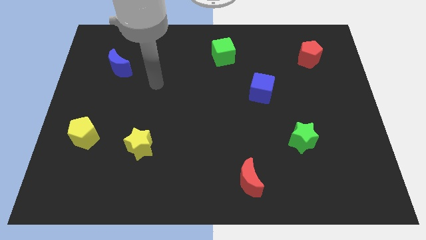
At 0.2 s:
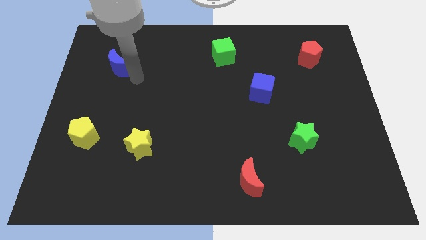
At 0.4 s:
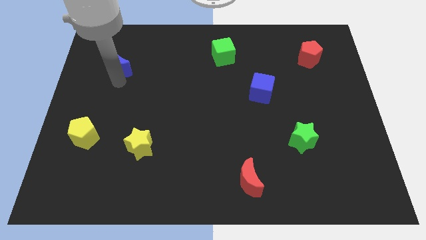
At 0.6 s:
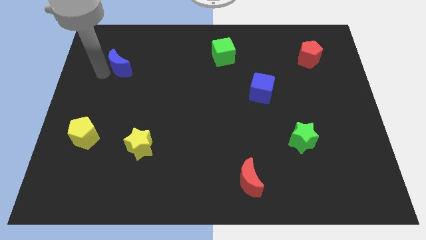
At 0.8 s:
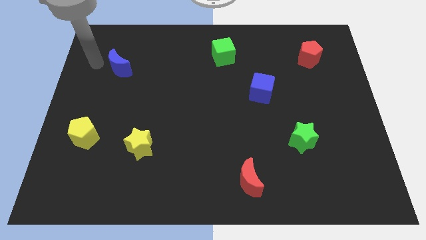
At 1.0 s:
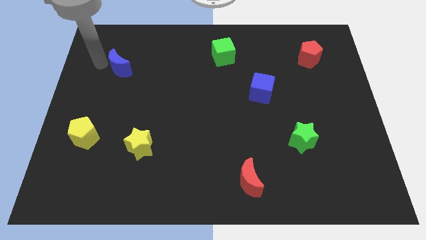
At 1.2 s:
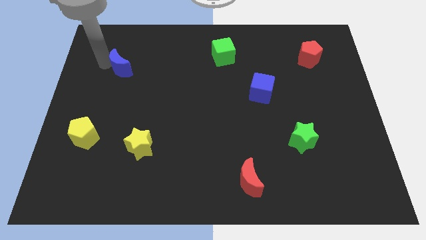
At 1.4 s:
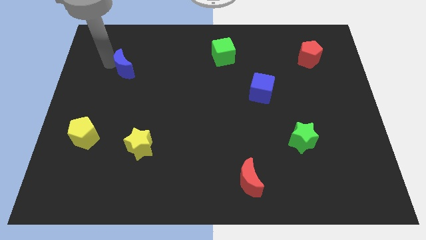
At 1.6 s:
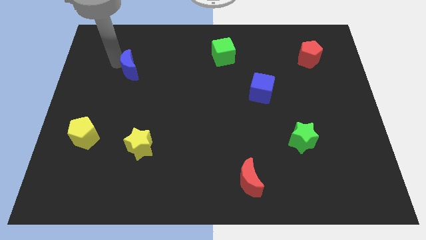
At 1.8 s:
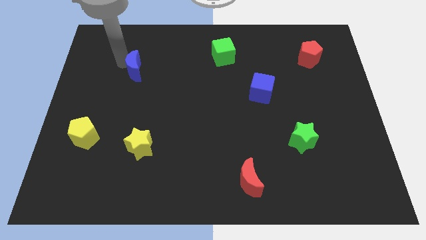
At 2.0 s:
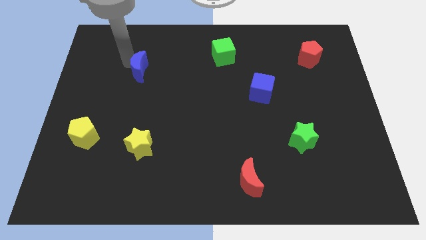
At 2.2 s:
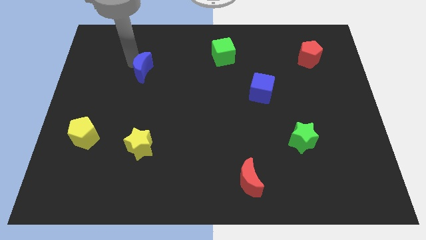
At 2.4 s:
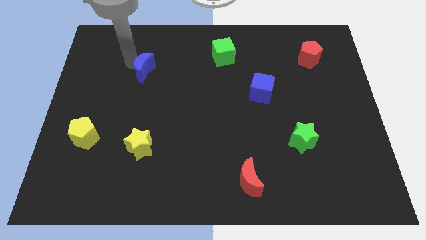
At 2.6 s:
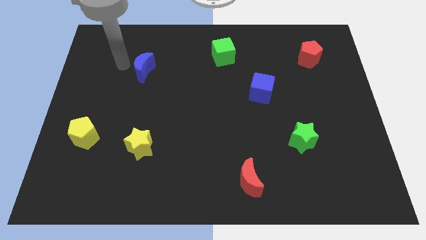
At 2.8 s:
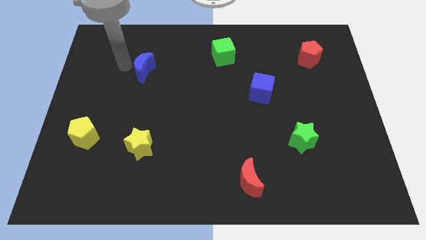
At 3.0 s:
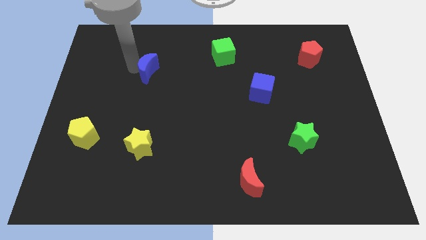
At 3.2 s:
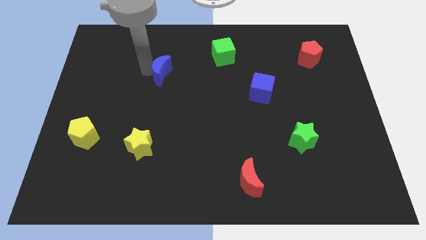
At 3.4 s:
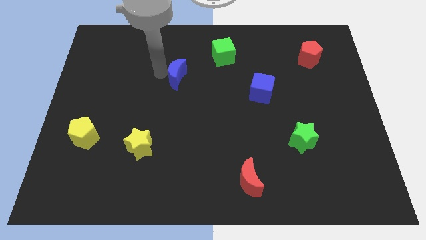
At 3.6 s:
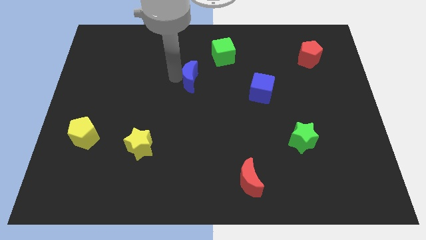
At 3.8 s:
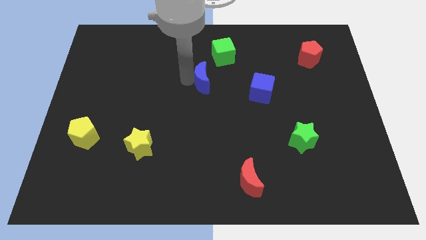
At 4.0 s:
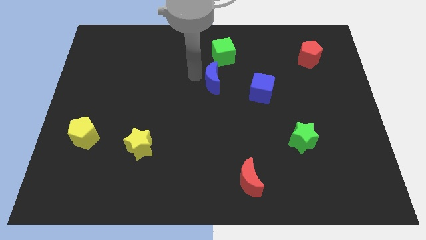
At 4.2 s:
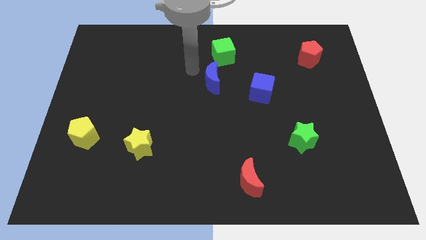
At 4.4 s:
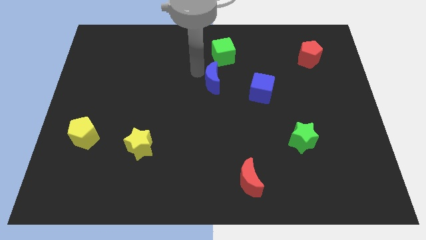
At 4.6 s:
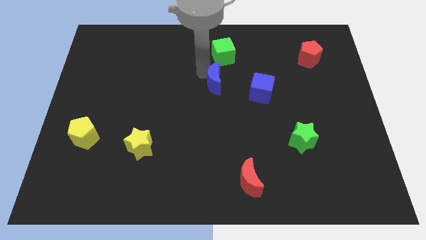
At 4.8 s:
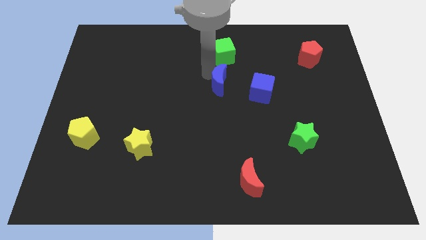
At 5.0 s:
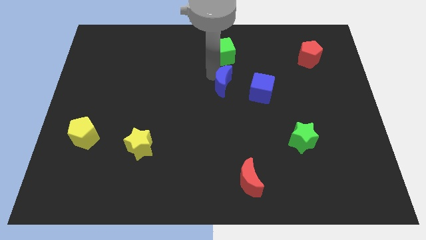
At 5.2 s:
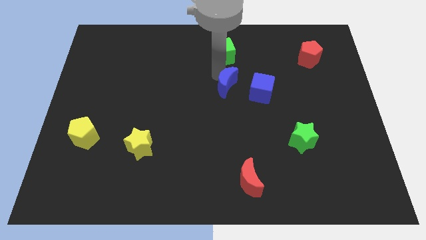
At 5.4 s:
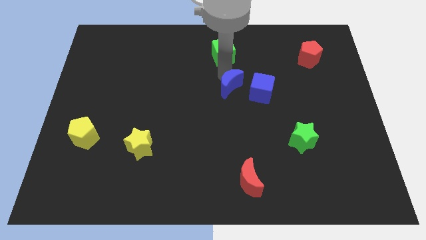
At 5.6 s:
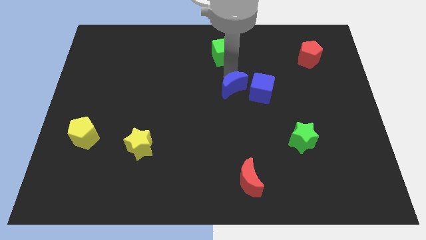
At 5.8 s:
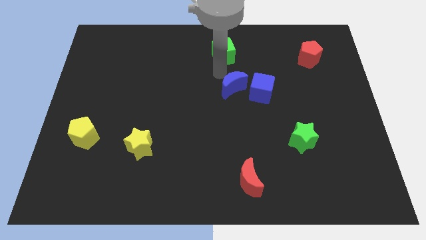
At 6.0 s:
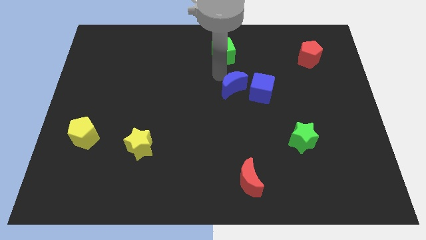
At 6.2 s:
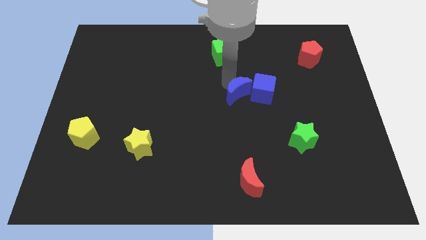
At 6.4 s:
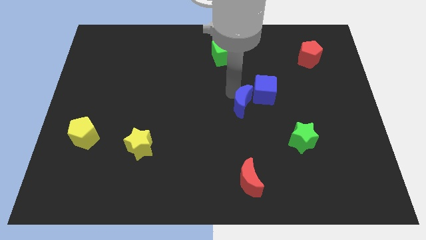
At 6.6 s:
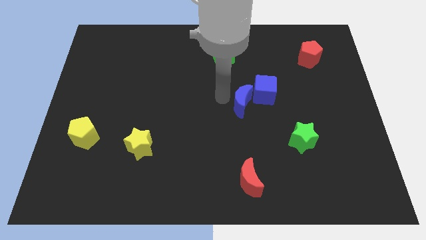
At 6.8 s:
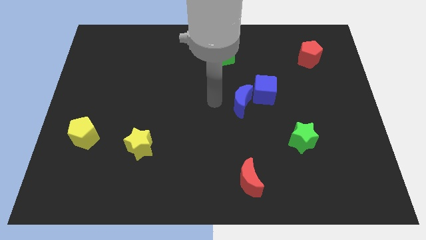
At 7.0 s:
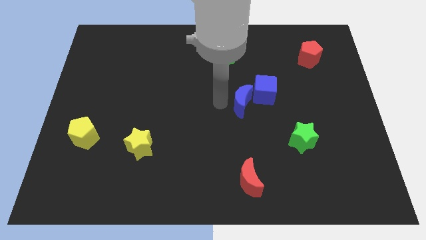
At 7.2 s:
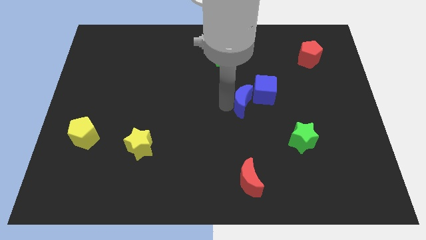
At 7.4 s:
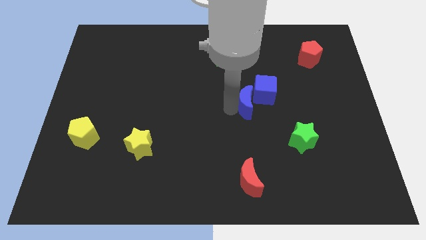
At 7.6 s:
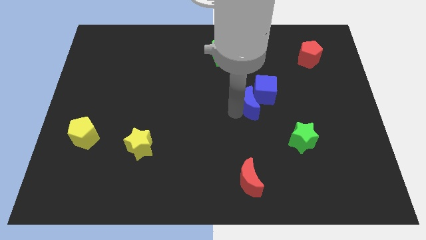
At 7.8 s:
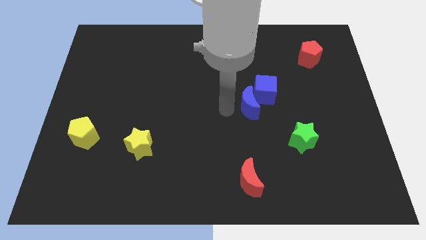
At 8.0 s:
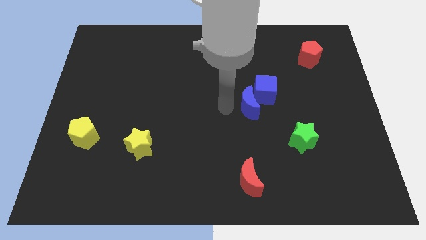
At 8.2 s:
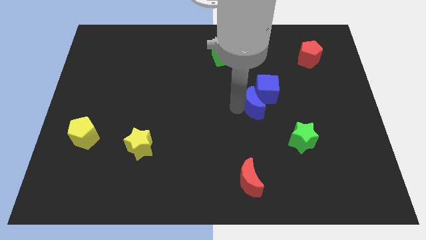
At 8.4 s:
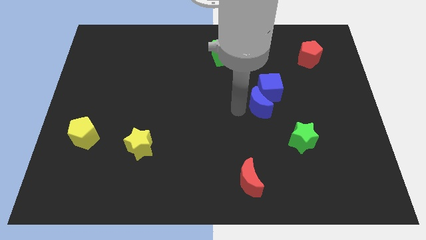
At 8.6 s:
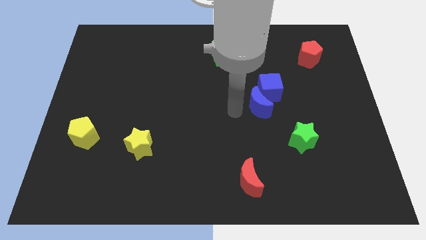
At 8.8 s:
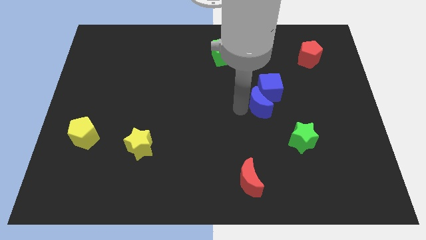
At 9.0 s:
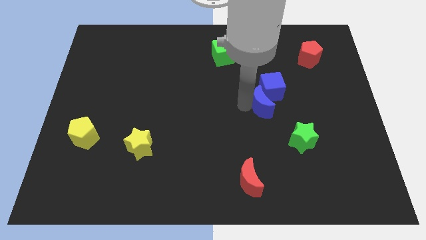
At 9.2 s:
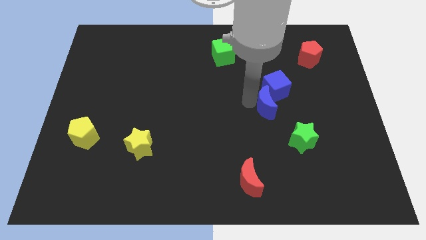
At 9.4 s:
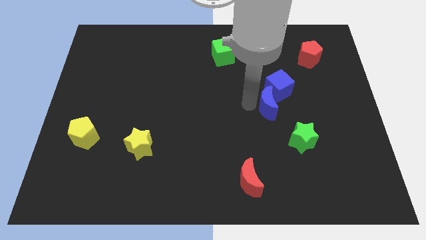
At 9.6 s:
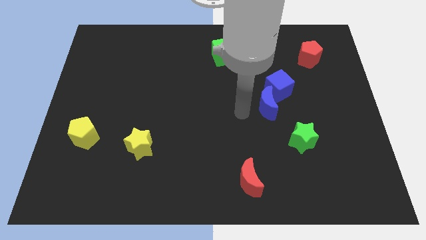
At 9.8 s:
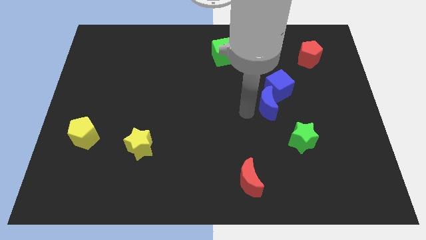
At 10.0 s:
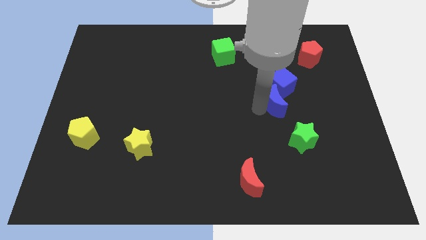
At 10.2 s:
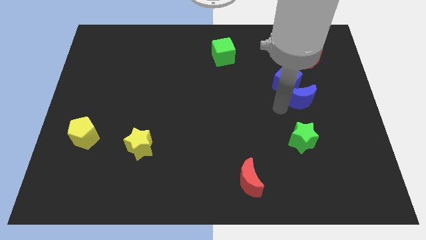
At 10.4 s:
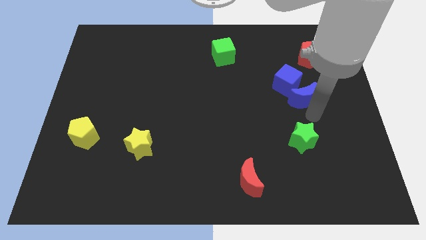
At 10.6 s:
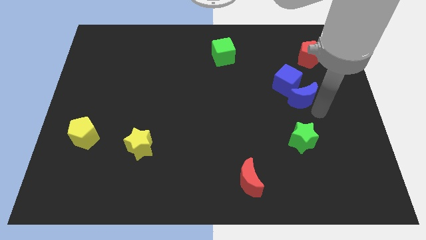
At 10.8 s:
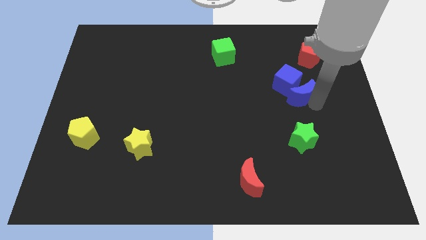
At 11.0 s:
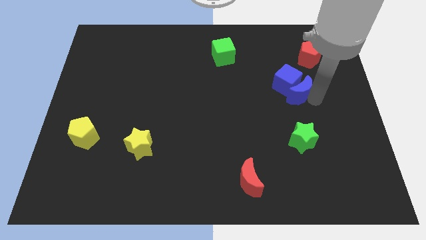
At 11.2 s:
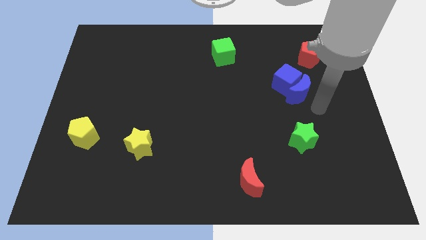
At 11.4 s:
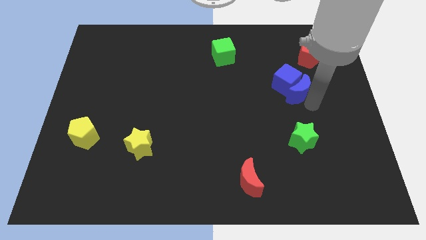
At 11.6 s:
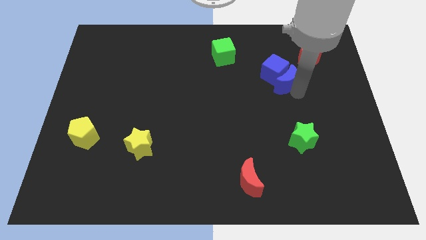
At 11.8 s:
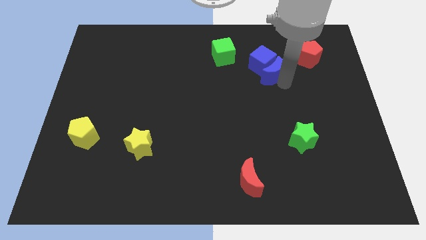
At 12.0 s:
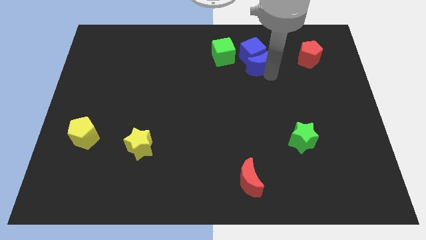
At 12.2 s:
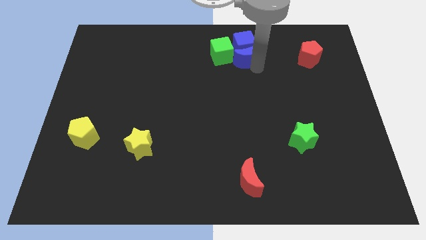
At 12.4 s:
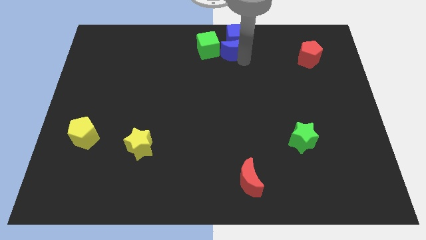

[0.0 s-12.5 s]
push the blue moon to the top
